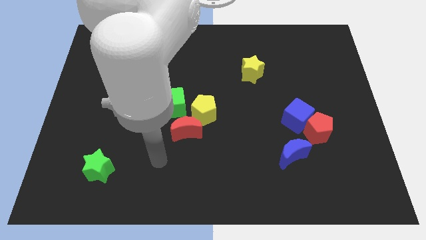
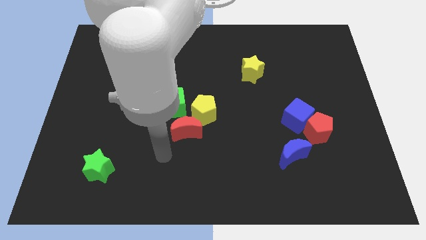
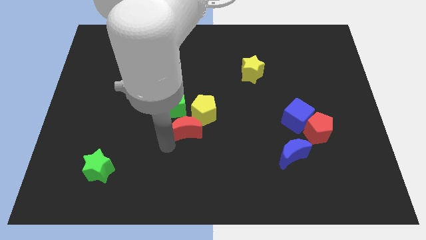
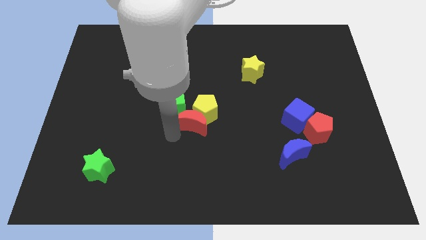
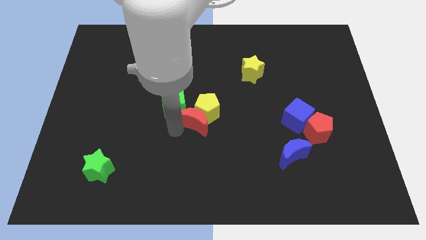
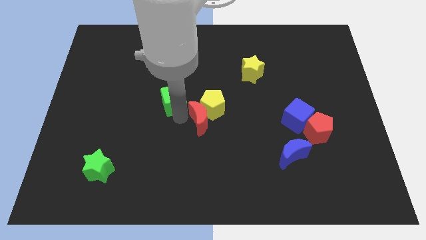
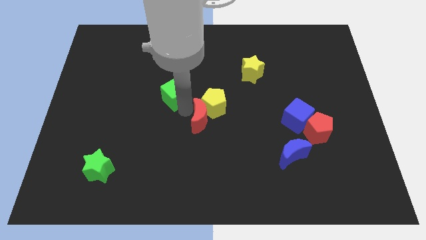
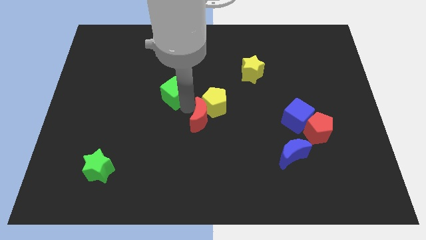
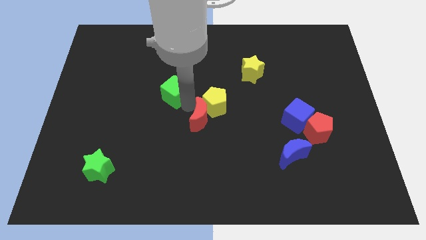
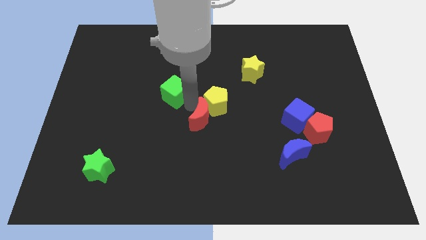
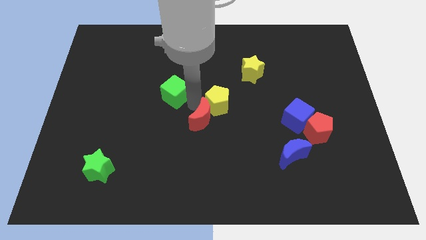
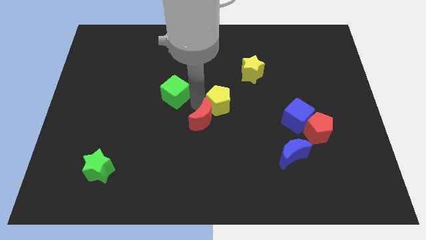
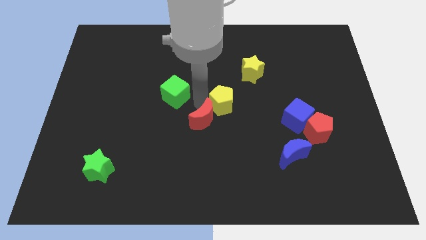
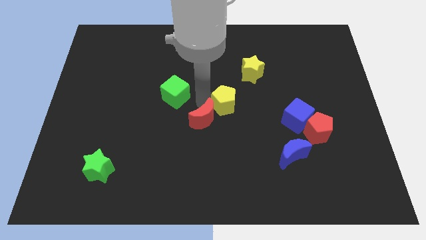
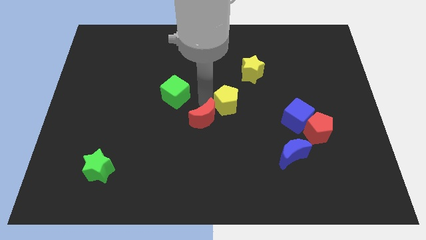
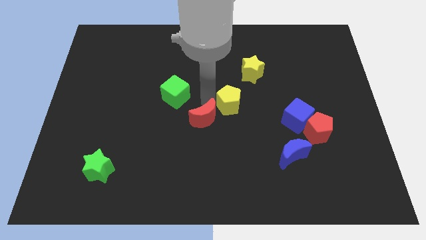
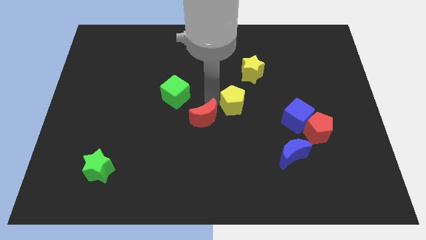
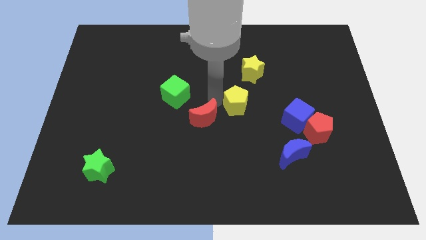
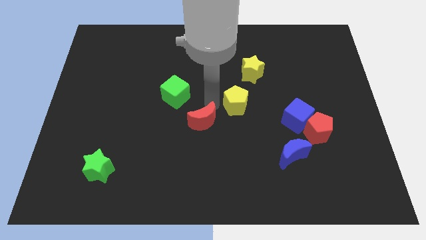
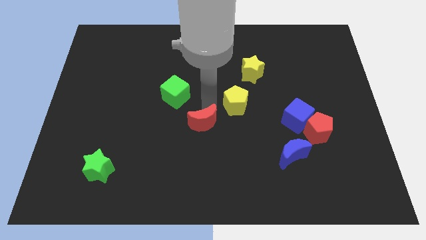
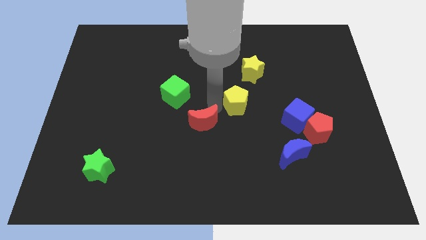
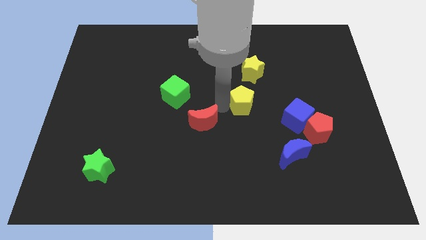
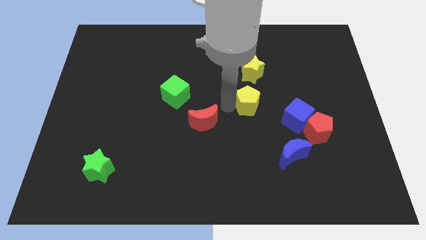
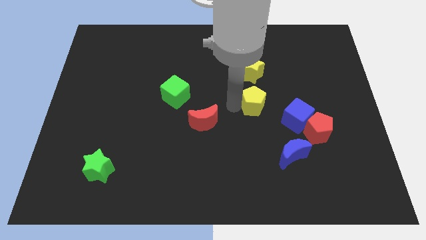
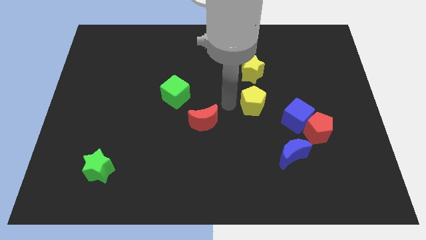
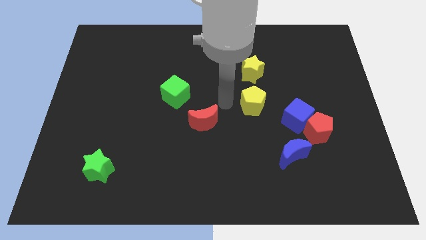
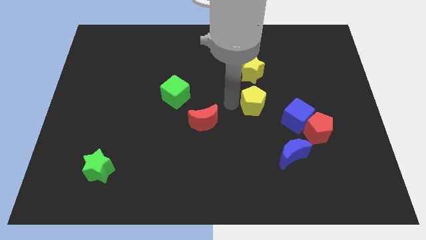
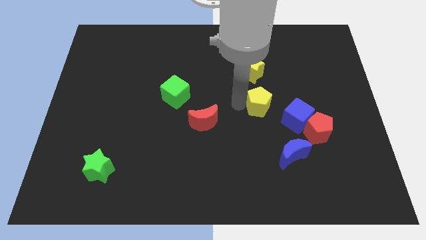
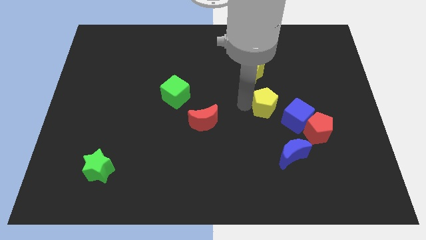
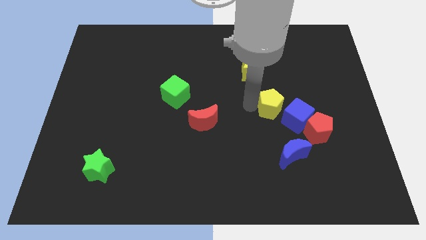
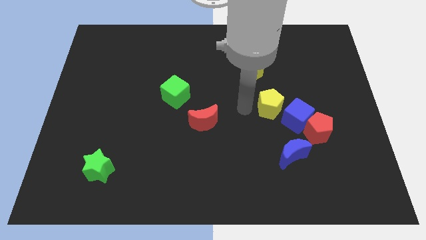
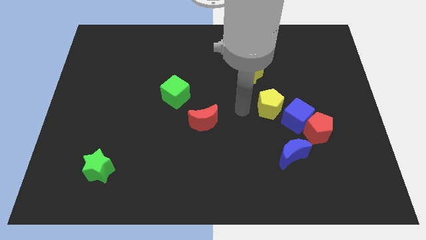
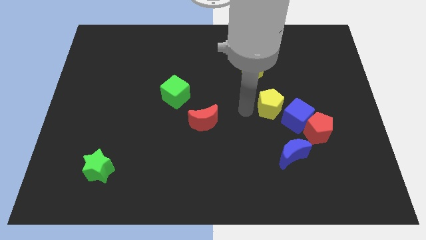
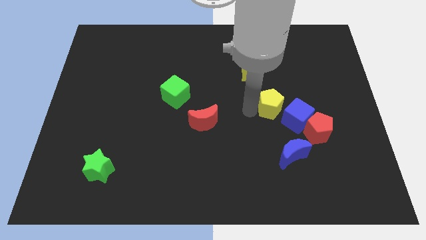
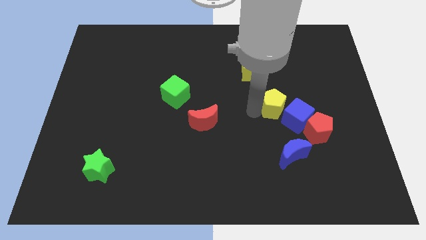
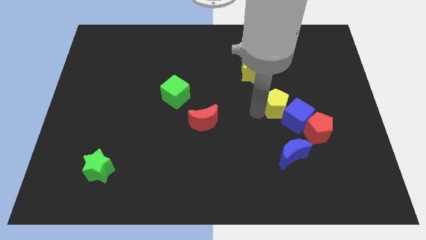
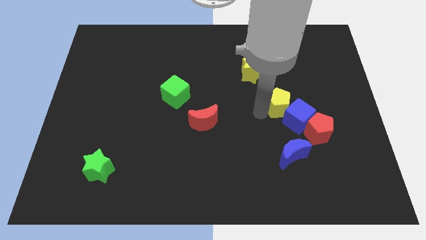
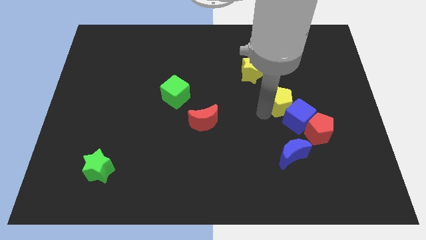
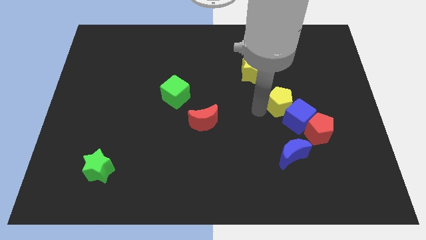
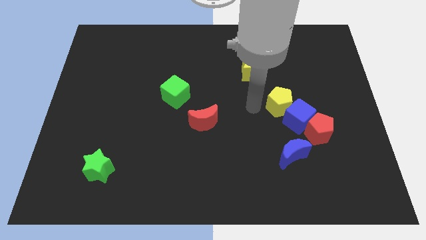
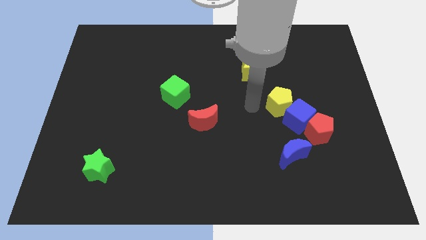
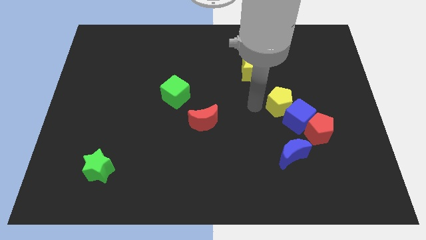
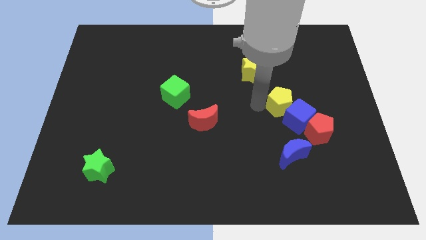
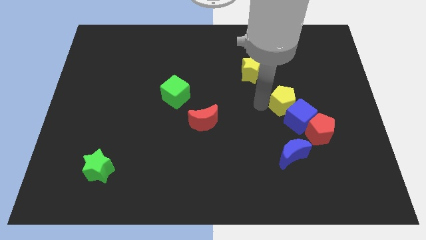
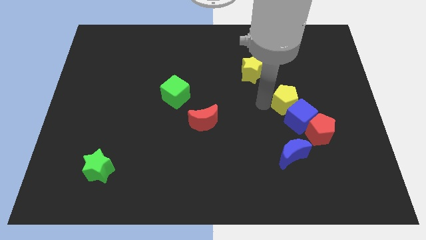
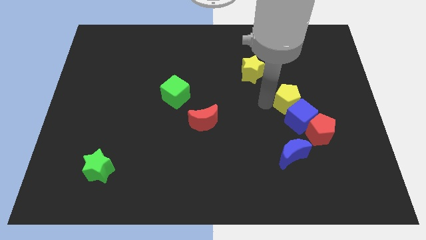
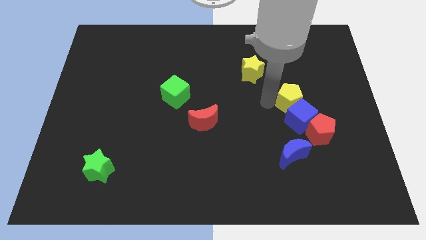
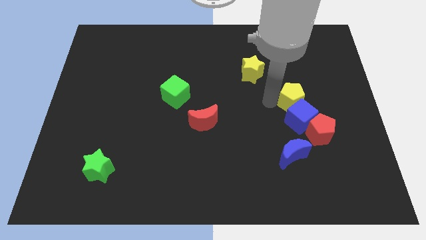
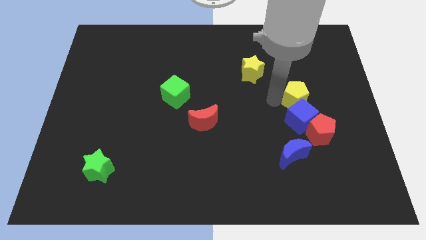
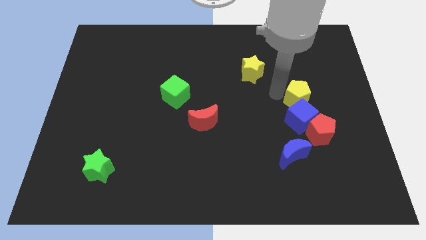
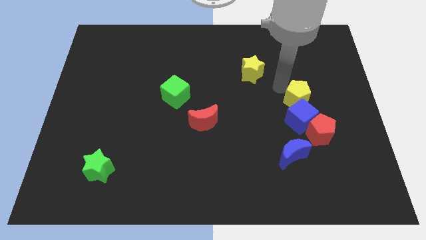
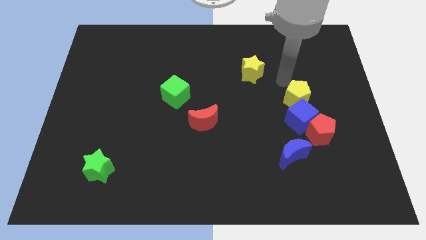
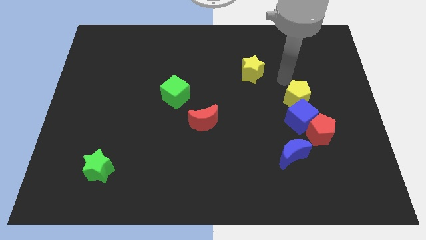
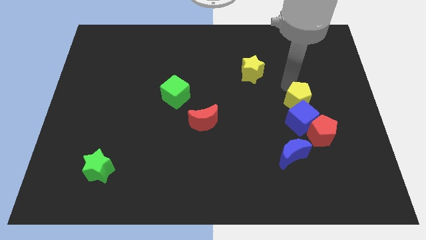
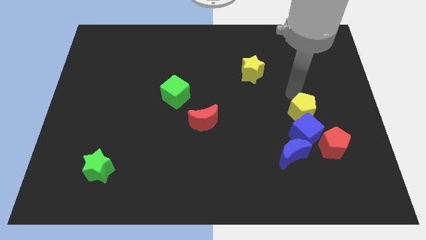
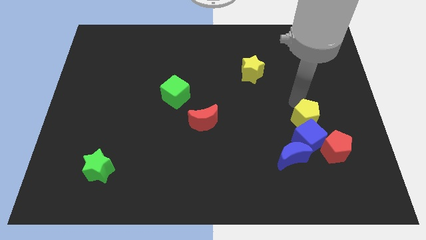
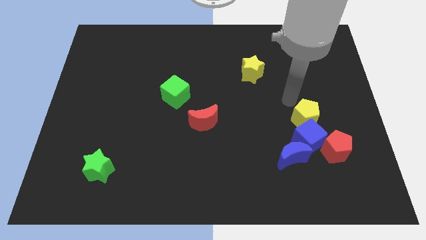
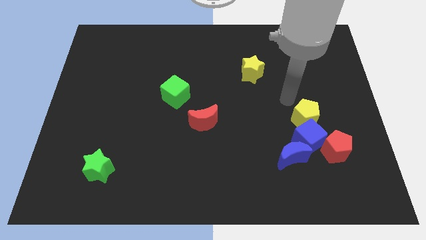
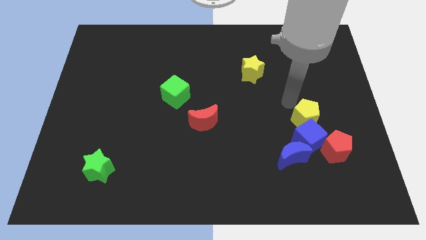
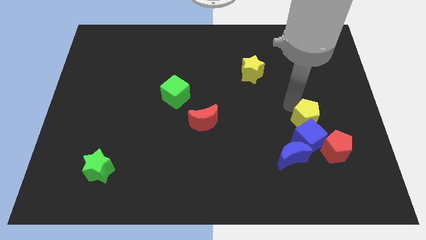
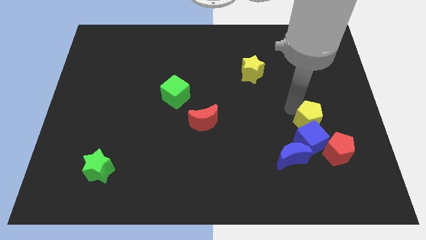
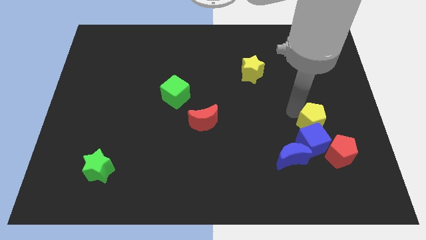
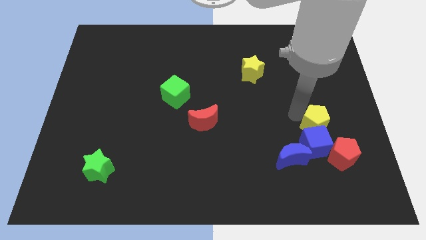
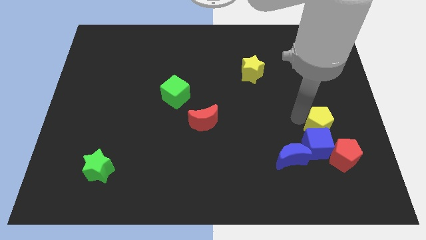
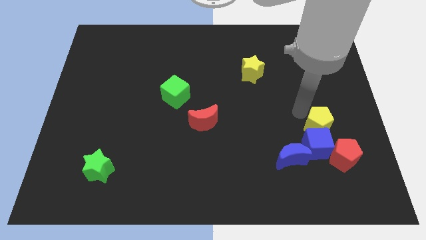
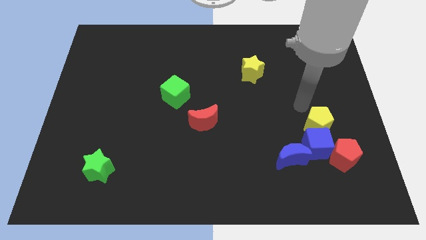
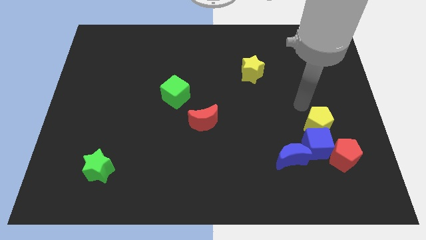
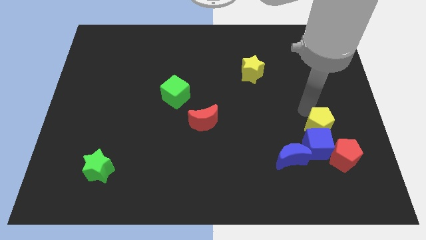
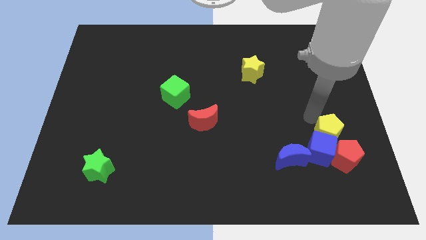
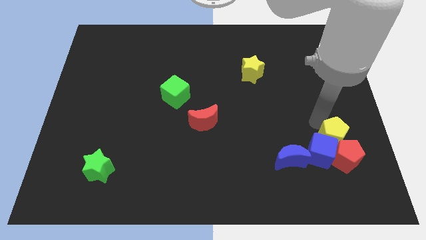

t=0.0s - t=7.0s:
slide the yellow pentagon next to the red pentagon
